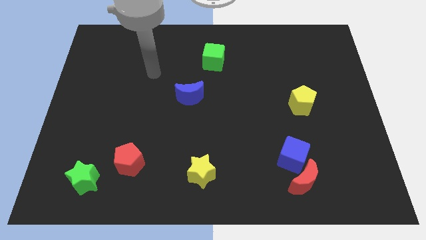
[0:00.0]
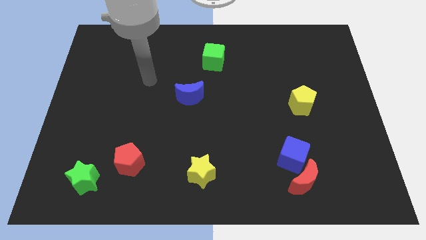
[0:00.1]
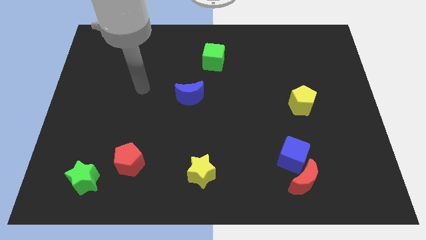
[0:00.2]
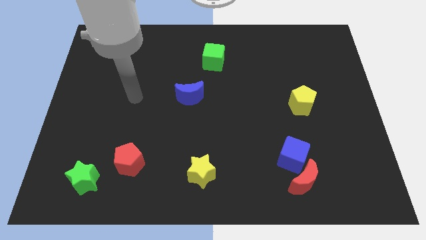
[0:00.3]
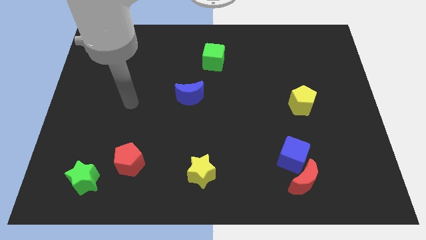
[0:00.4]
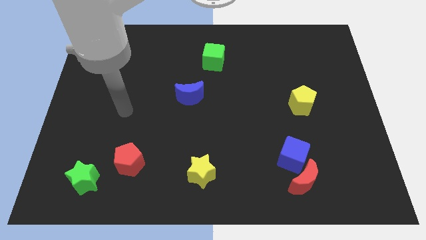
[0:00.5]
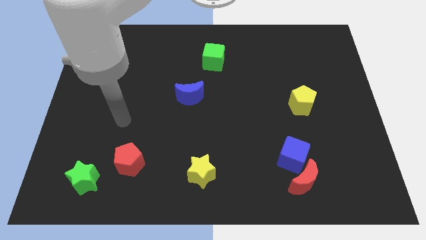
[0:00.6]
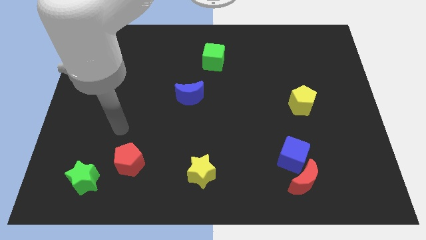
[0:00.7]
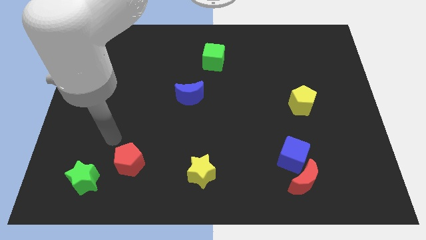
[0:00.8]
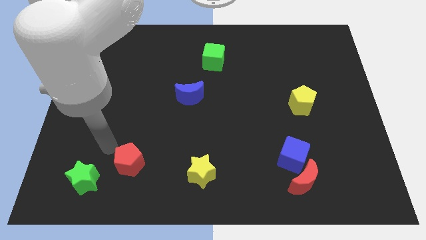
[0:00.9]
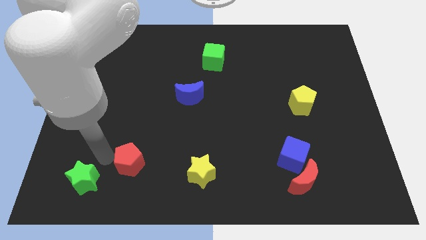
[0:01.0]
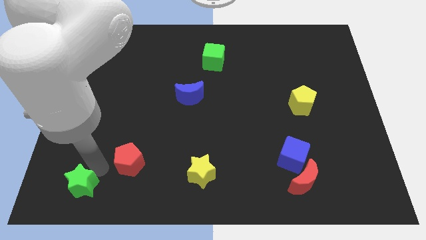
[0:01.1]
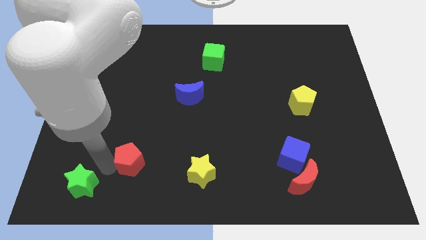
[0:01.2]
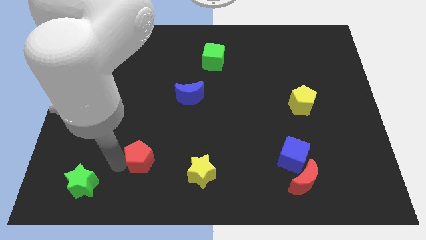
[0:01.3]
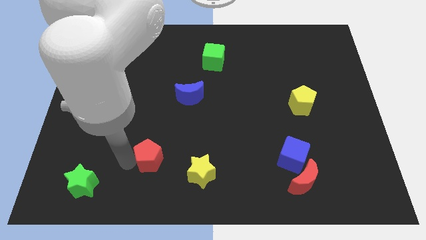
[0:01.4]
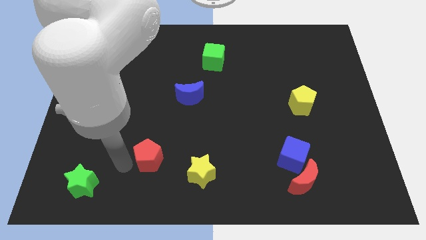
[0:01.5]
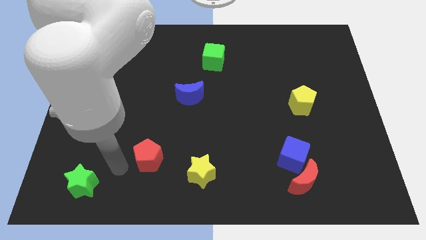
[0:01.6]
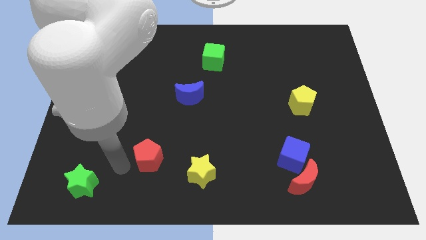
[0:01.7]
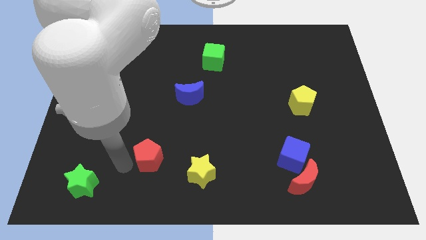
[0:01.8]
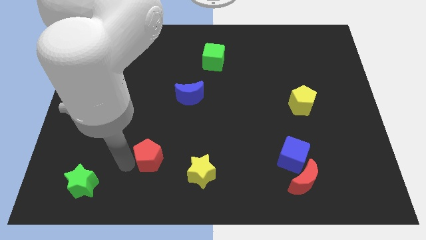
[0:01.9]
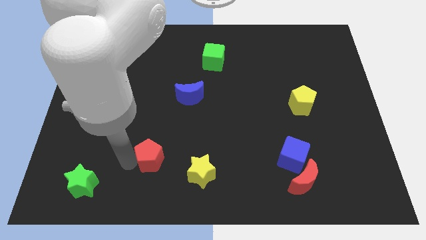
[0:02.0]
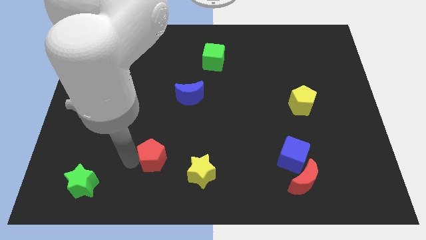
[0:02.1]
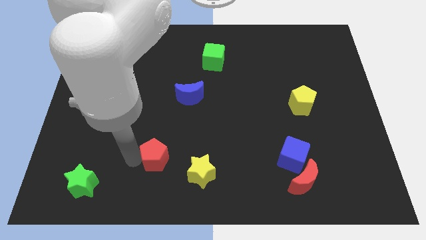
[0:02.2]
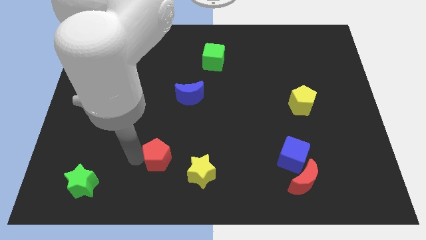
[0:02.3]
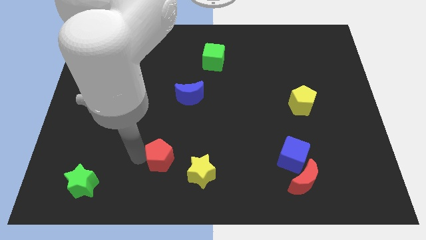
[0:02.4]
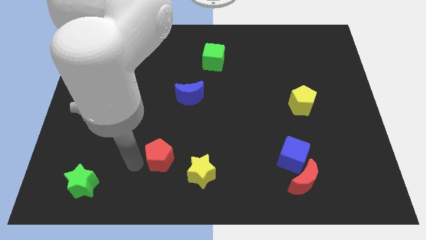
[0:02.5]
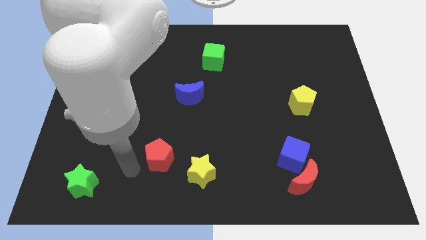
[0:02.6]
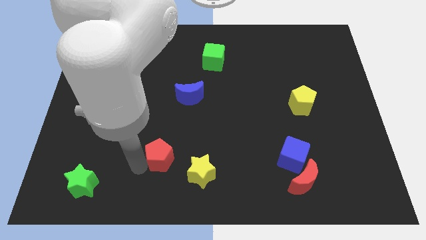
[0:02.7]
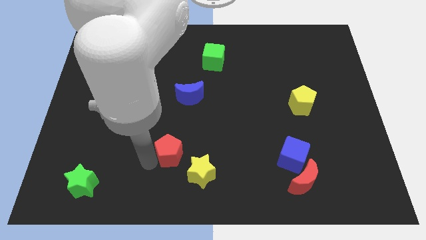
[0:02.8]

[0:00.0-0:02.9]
push the red pentagon slightly to the right

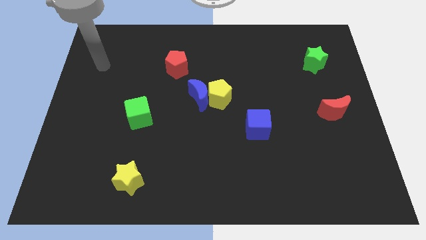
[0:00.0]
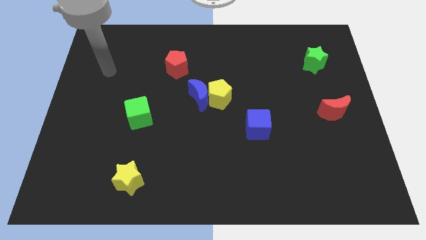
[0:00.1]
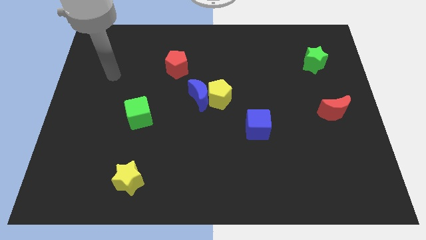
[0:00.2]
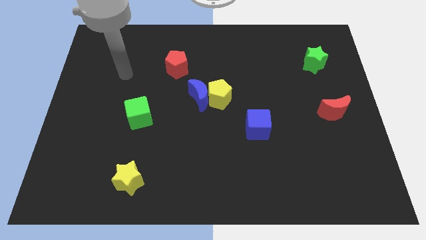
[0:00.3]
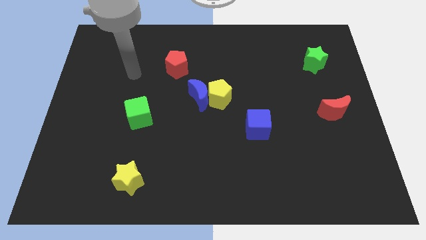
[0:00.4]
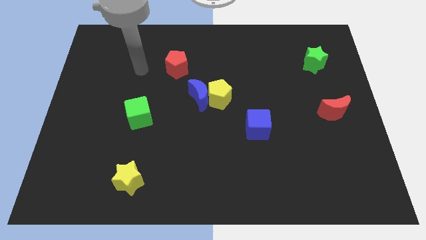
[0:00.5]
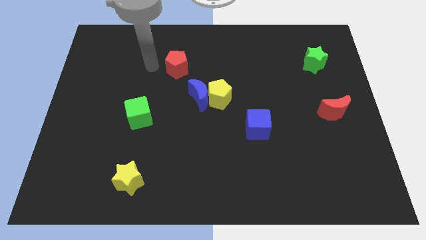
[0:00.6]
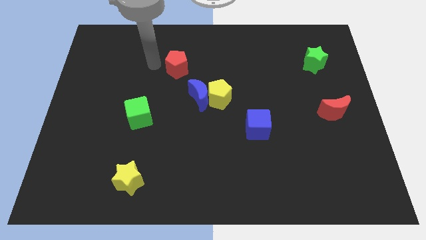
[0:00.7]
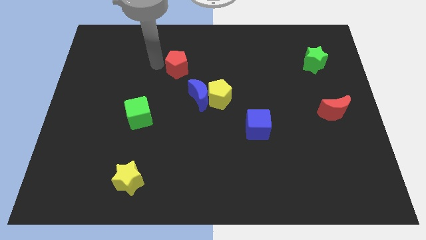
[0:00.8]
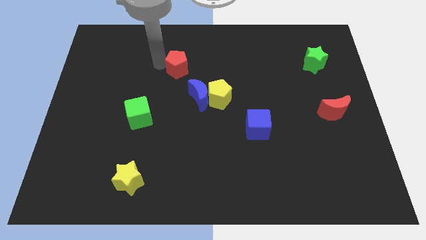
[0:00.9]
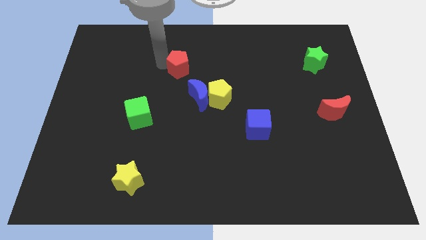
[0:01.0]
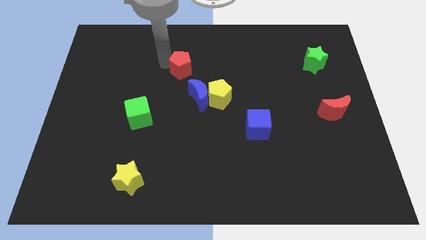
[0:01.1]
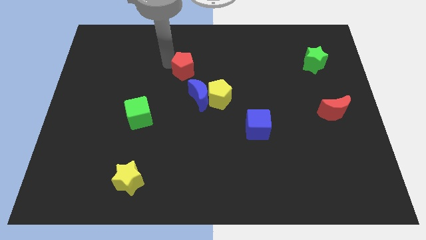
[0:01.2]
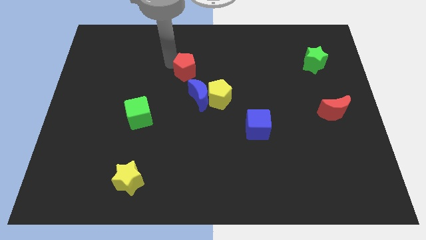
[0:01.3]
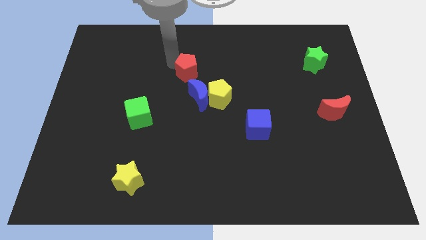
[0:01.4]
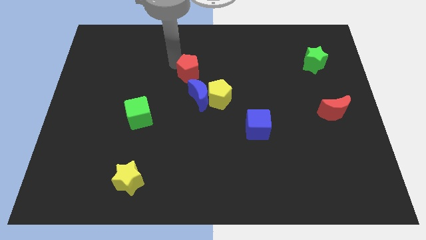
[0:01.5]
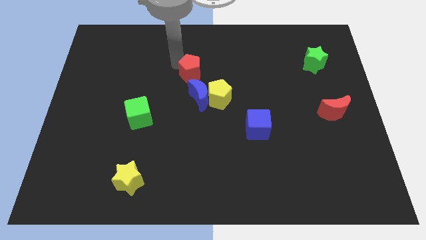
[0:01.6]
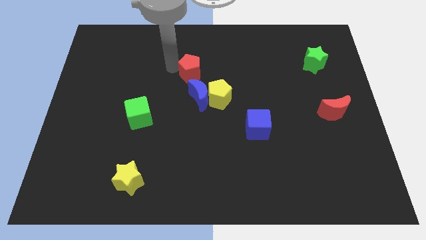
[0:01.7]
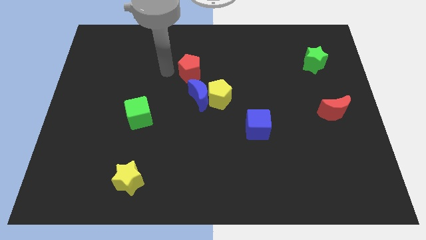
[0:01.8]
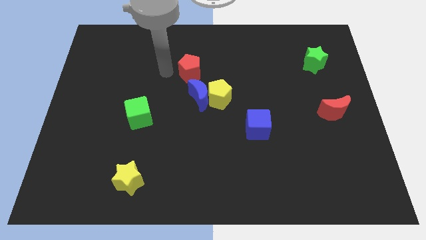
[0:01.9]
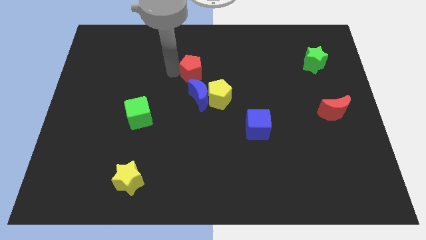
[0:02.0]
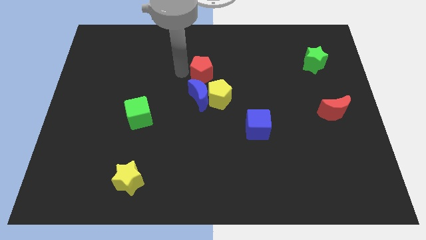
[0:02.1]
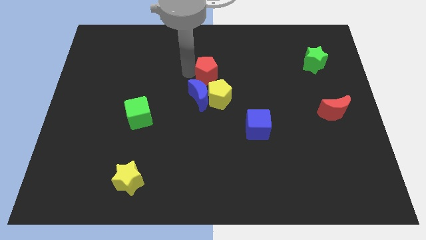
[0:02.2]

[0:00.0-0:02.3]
move the red pentagon right a little bit

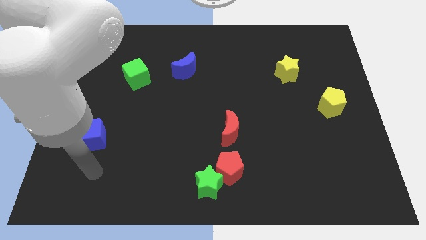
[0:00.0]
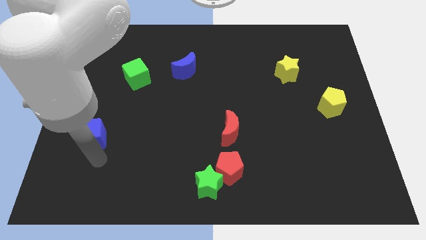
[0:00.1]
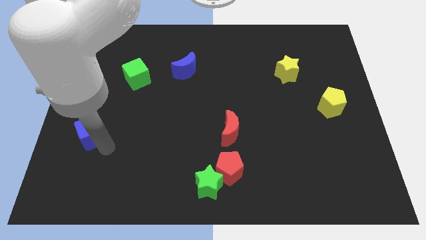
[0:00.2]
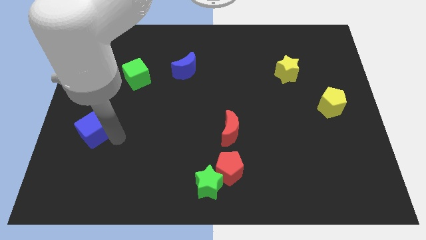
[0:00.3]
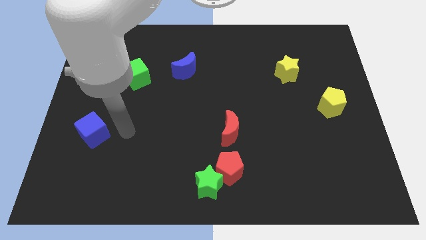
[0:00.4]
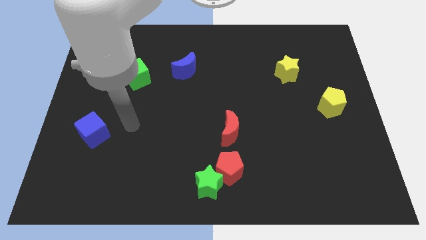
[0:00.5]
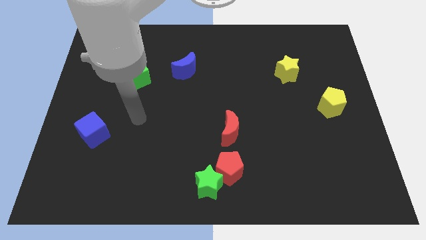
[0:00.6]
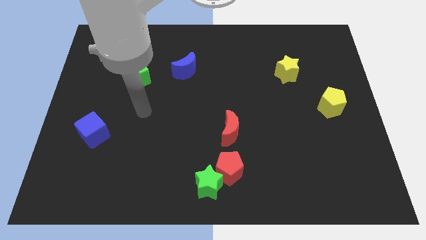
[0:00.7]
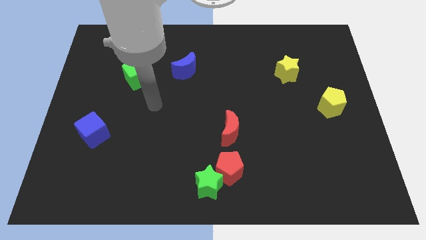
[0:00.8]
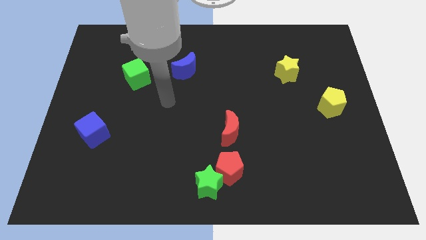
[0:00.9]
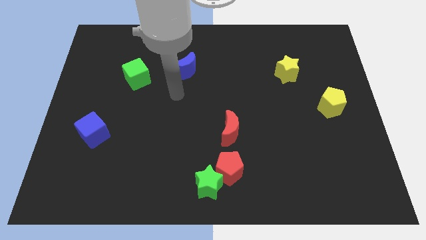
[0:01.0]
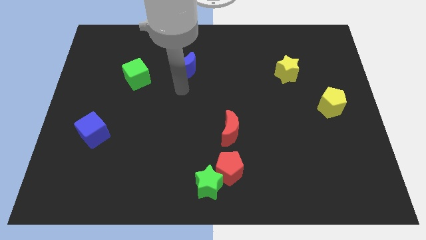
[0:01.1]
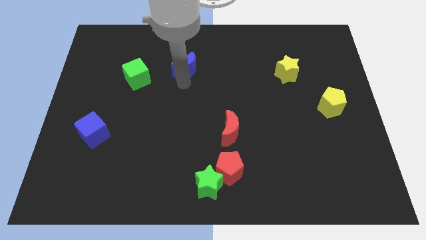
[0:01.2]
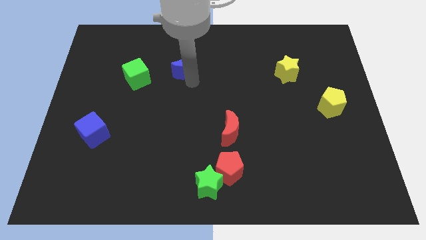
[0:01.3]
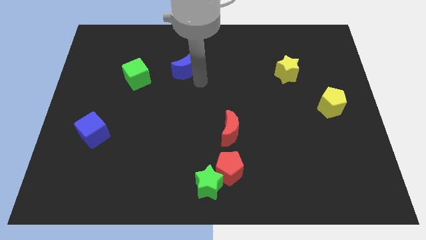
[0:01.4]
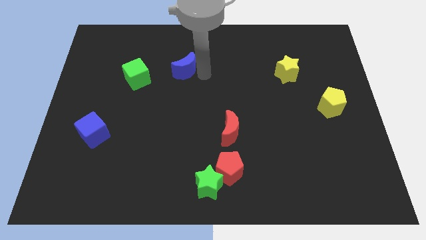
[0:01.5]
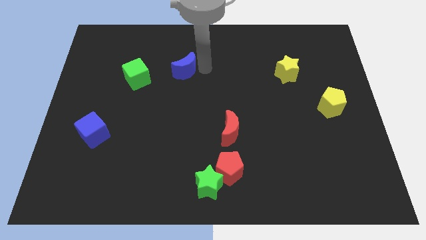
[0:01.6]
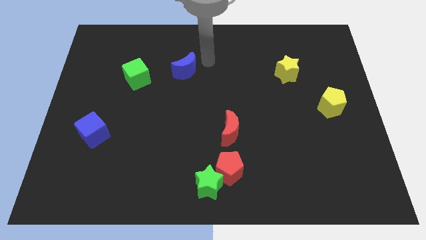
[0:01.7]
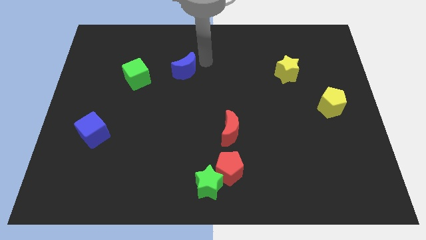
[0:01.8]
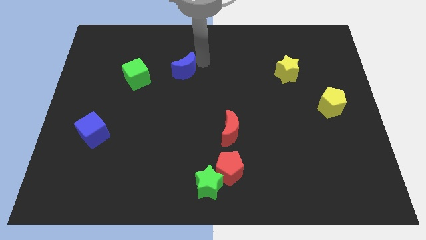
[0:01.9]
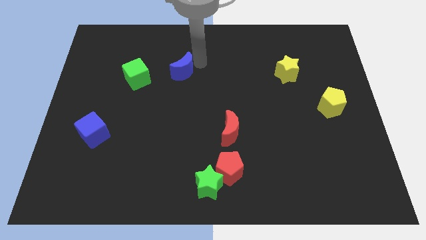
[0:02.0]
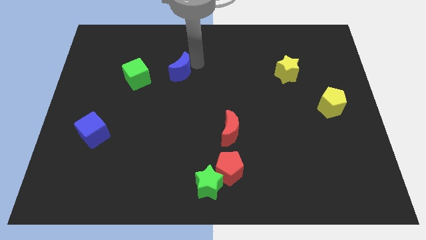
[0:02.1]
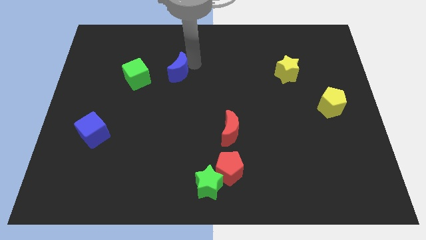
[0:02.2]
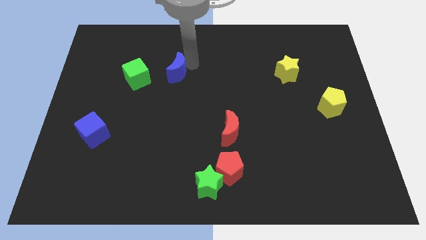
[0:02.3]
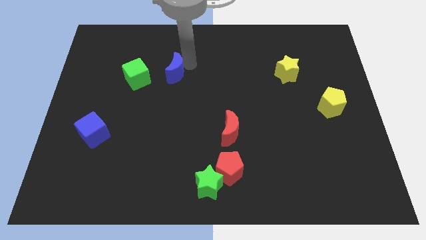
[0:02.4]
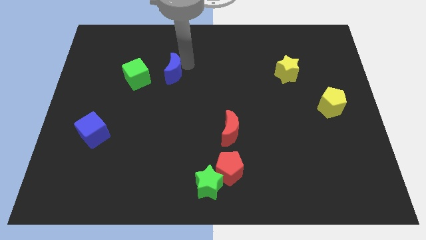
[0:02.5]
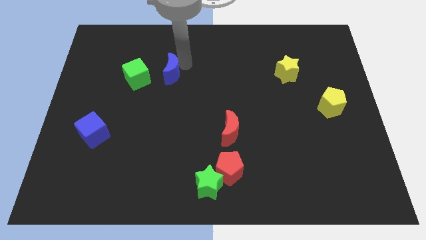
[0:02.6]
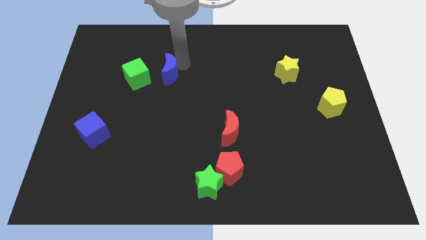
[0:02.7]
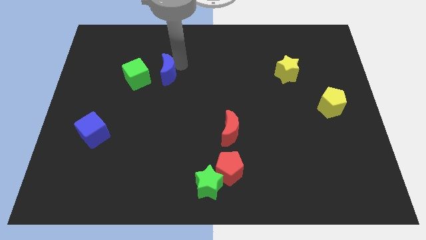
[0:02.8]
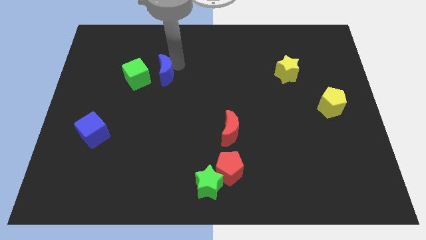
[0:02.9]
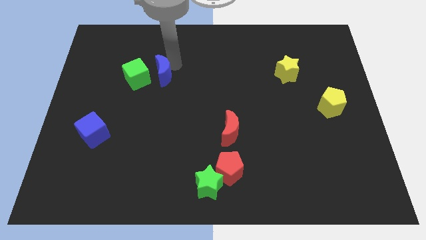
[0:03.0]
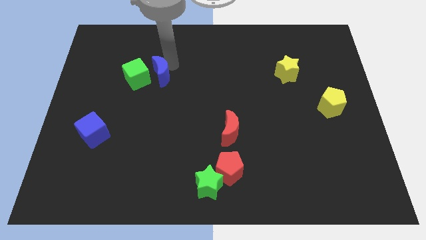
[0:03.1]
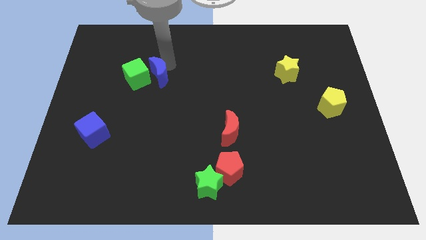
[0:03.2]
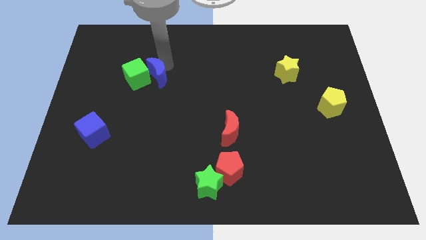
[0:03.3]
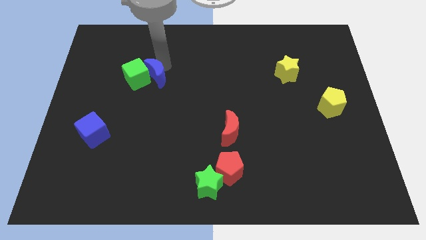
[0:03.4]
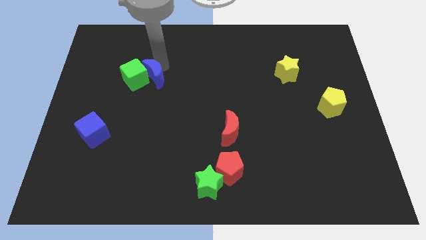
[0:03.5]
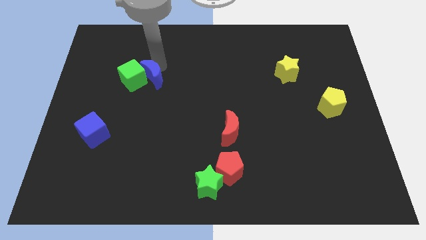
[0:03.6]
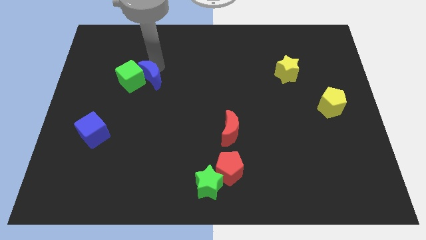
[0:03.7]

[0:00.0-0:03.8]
slide the blue moon a little down and then left
